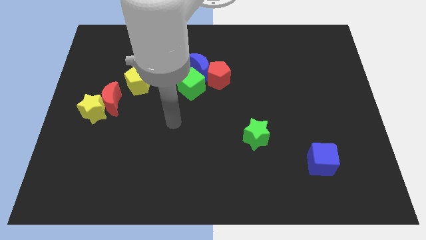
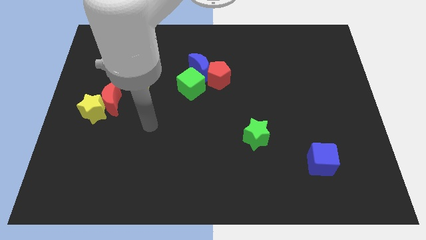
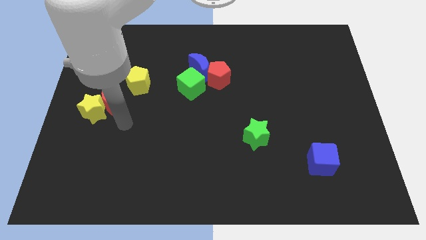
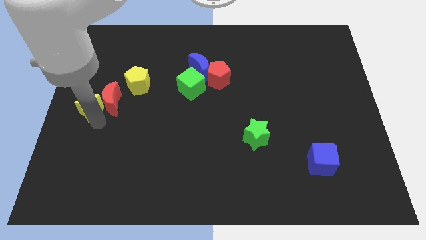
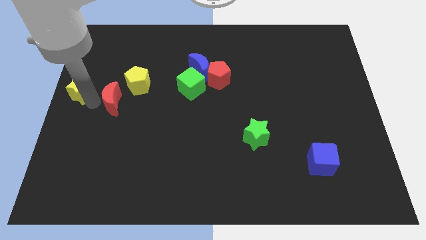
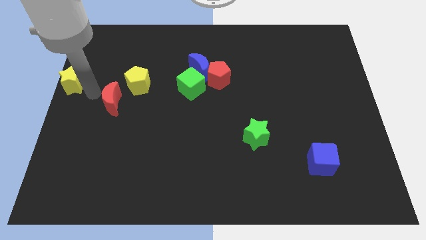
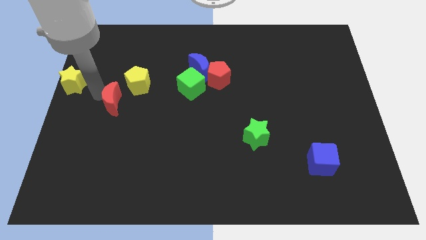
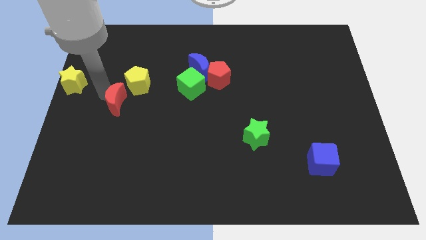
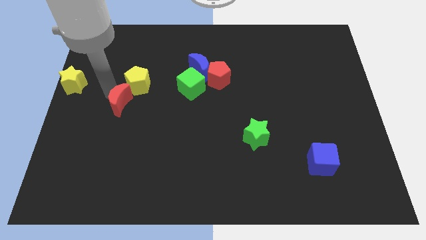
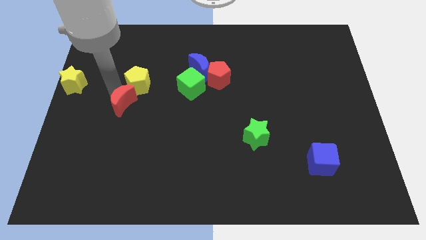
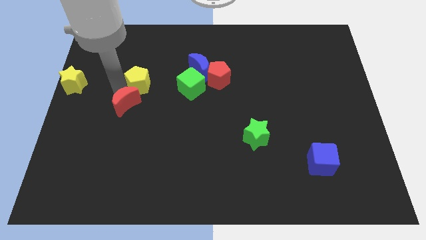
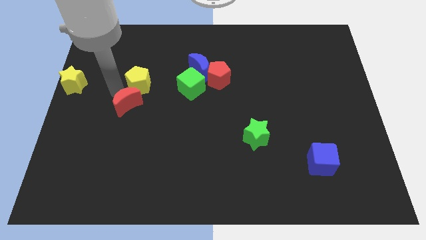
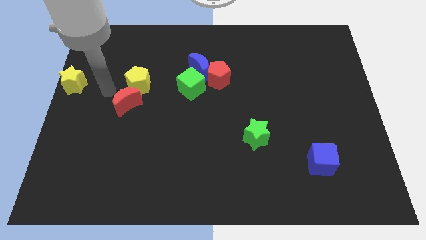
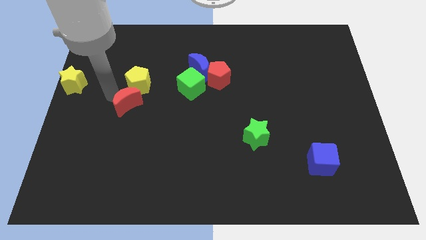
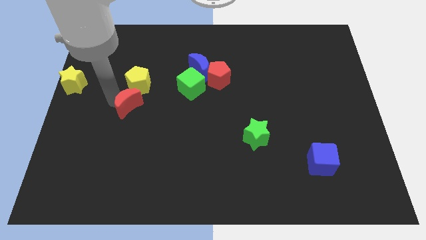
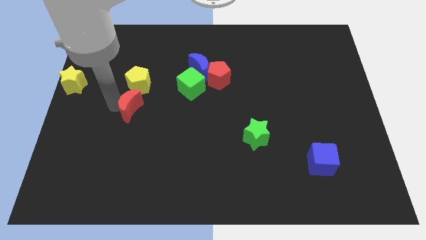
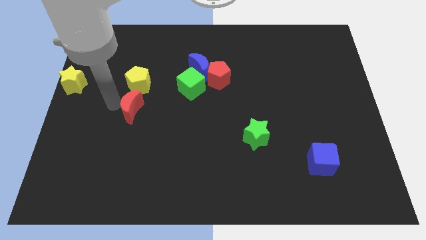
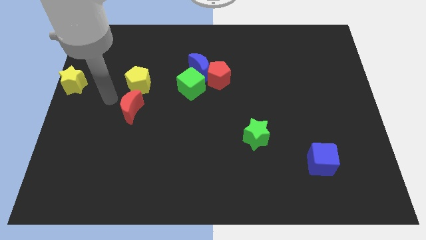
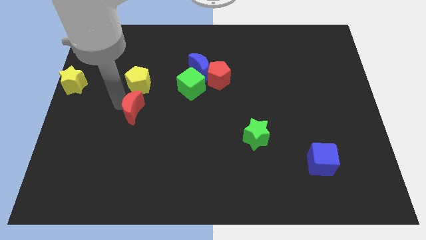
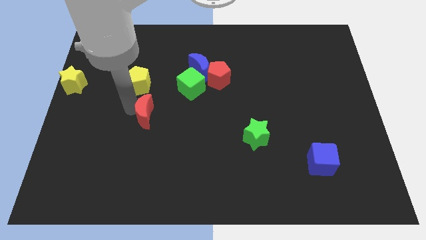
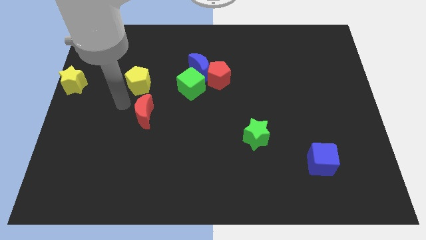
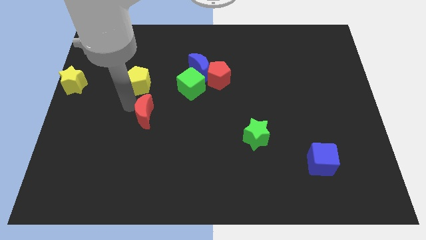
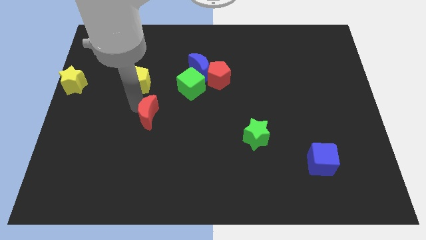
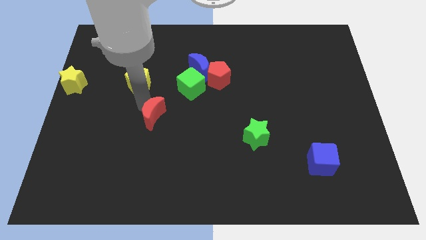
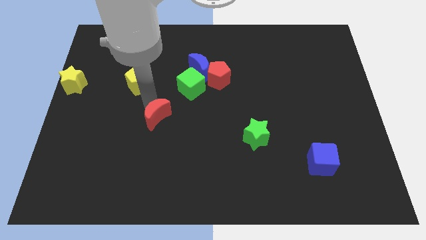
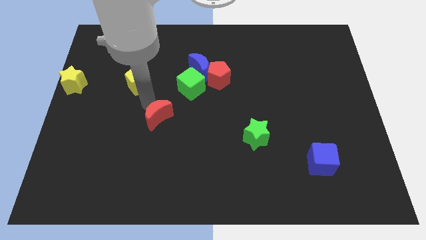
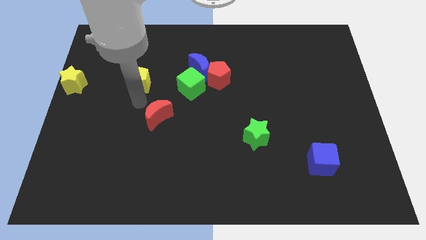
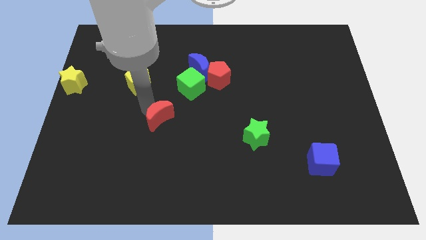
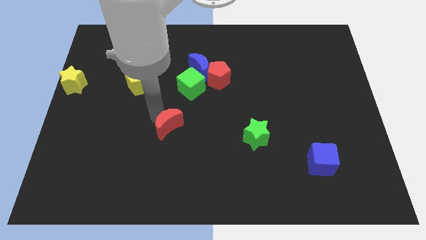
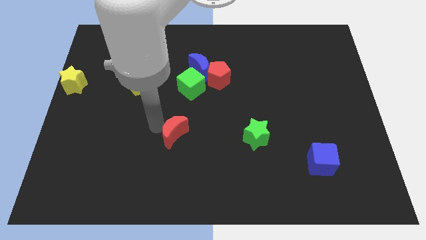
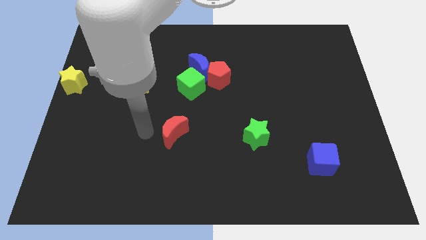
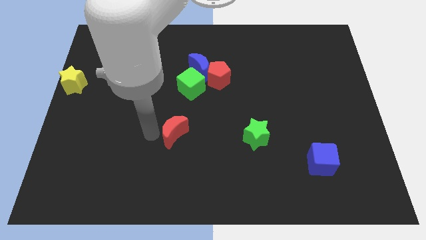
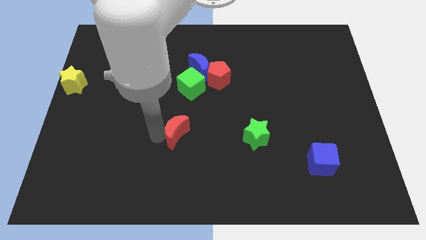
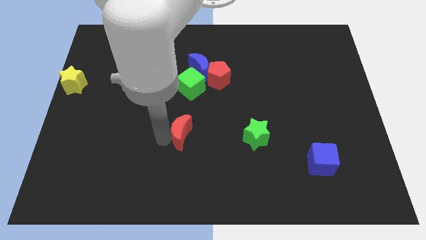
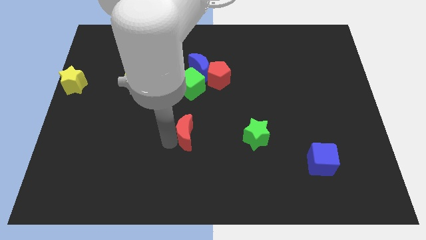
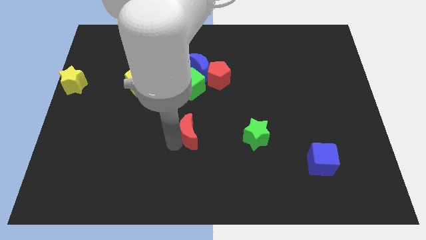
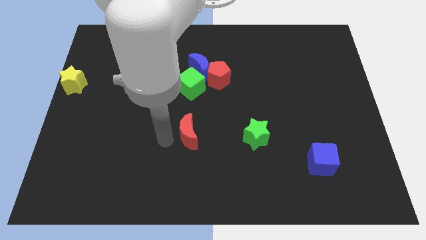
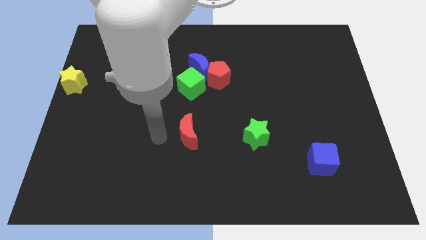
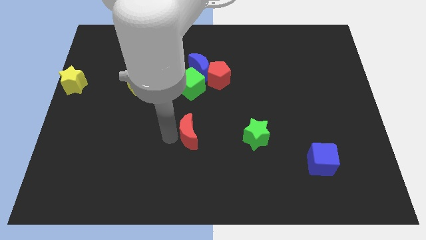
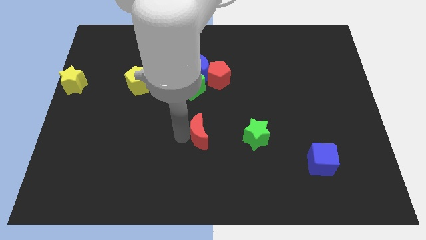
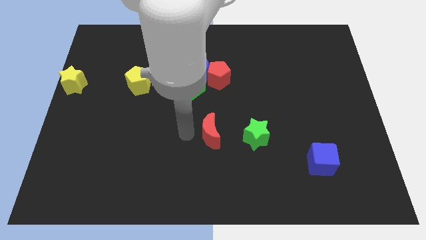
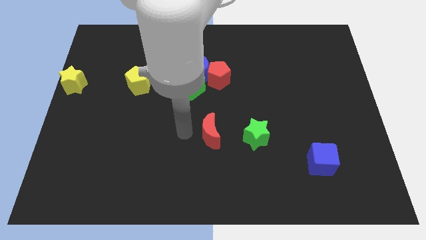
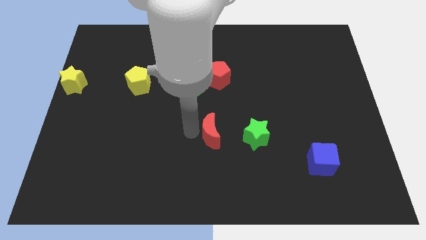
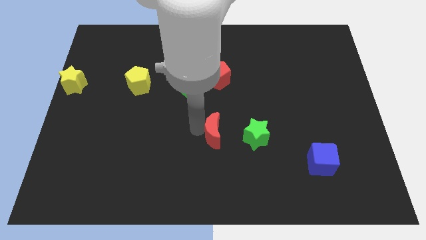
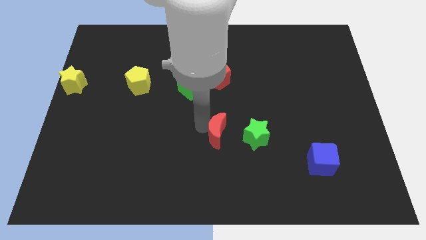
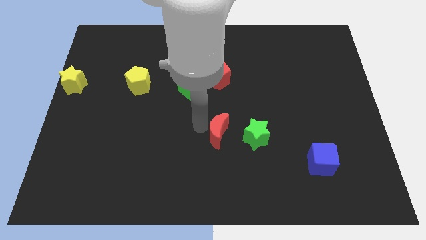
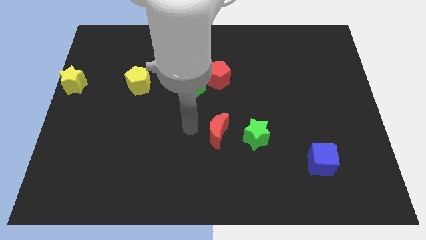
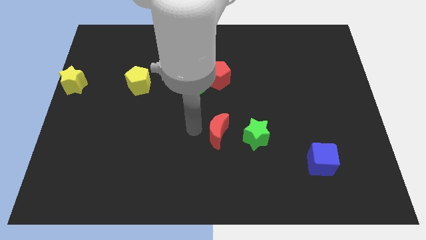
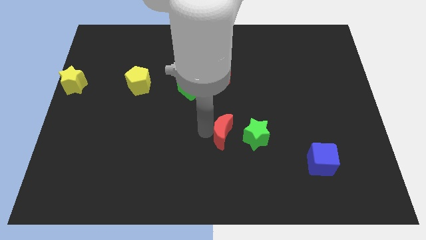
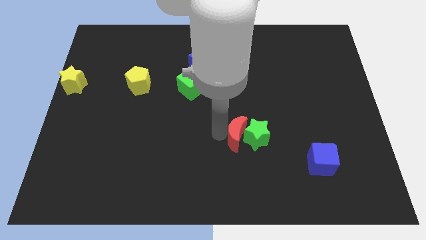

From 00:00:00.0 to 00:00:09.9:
put the red moon close to the green star

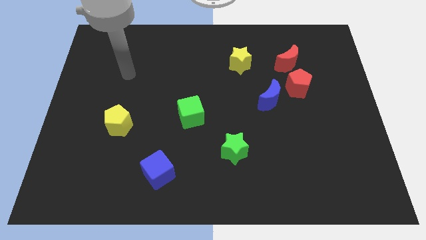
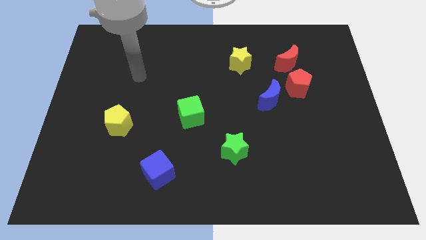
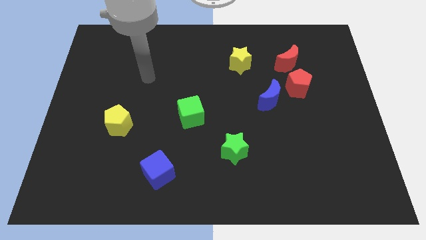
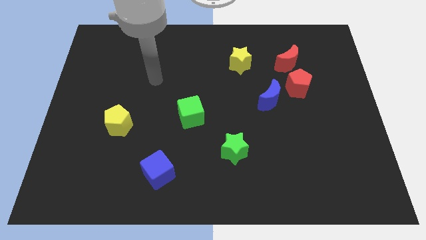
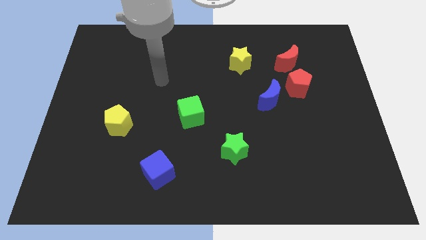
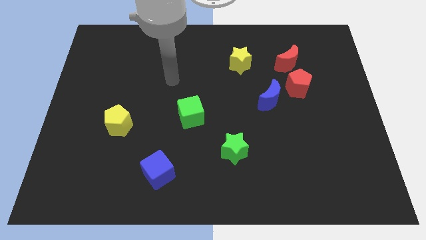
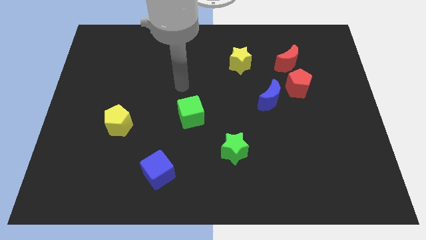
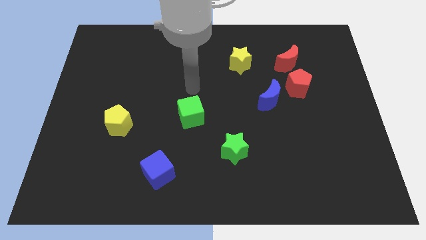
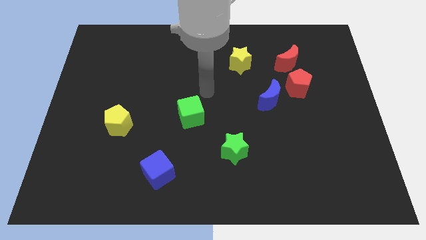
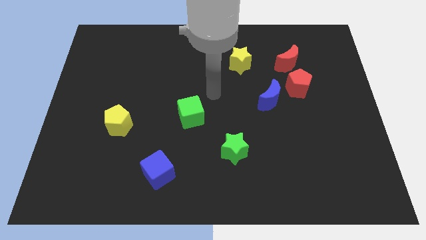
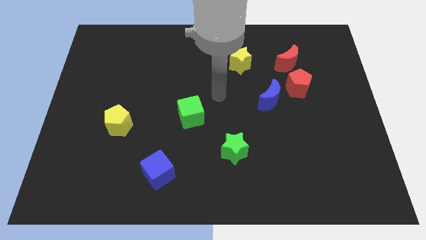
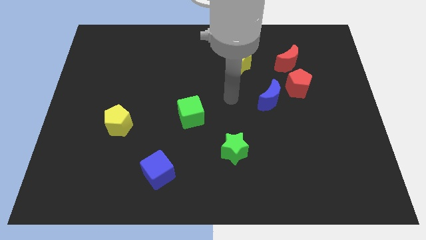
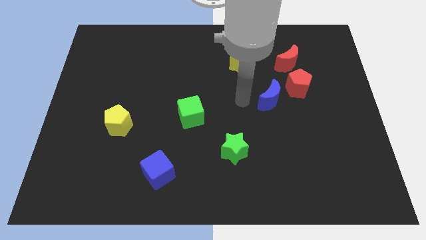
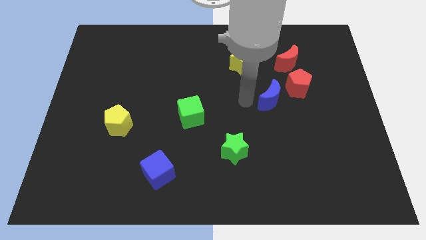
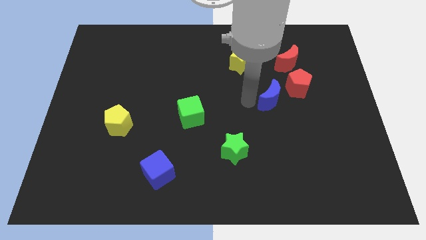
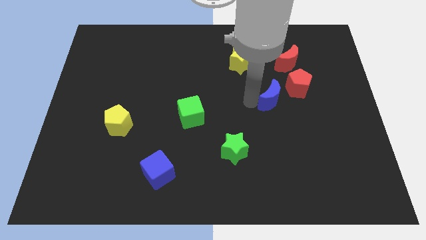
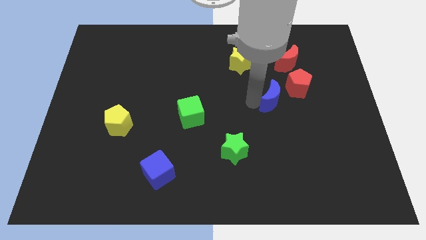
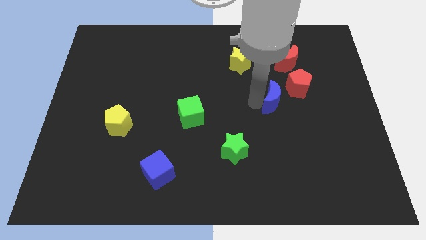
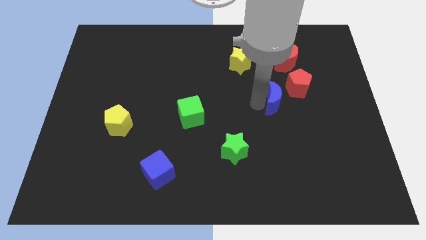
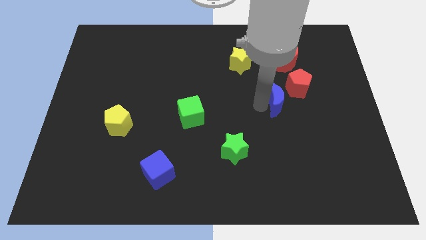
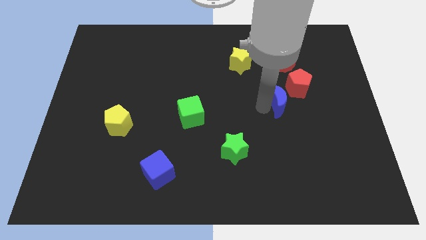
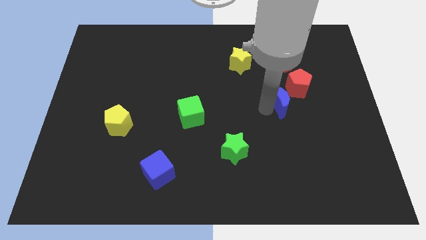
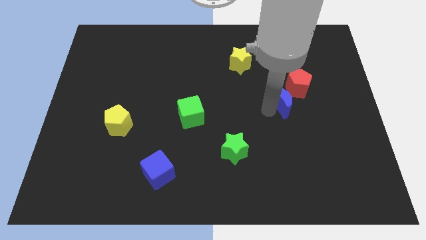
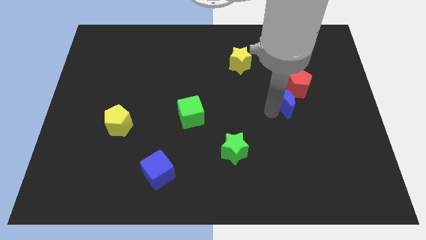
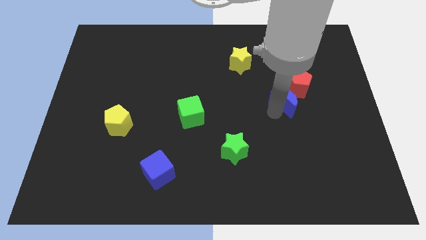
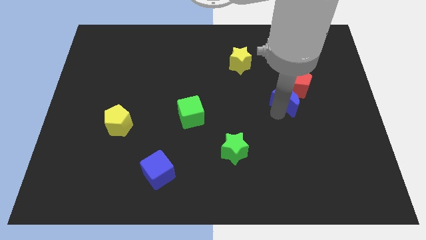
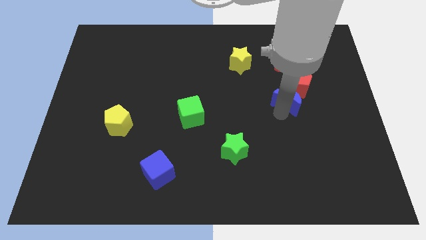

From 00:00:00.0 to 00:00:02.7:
push the blue moon next to the red pentagon
